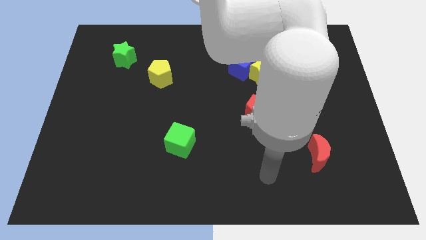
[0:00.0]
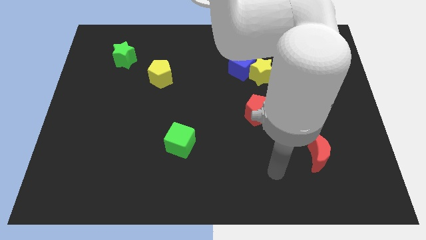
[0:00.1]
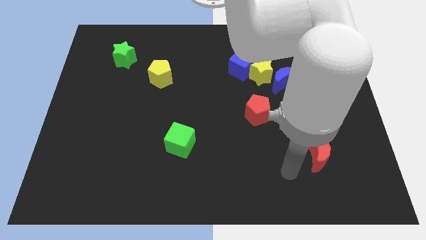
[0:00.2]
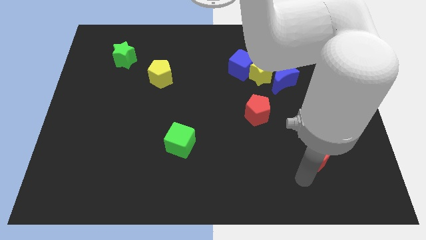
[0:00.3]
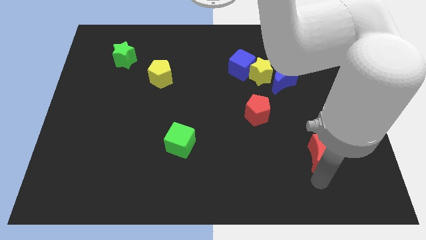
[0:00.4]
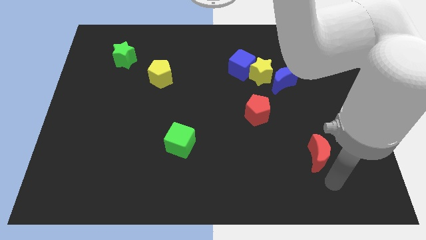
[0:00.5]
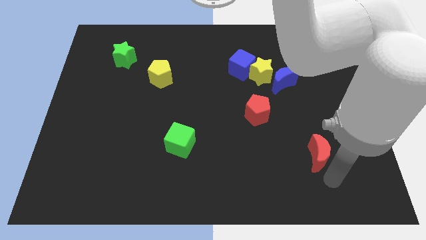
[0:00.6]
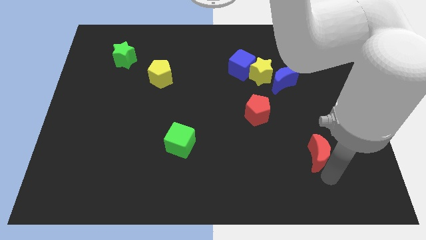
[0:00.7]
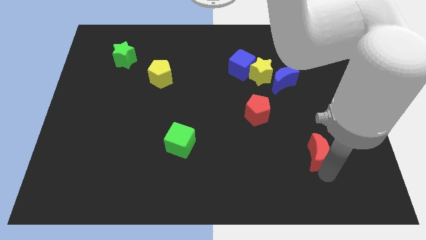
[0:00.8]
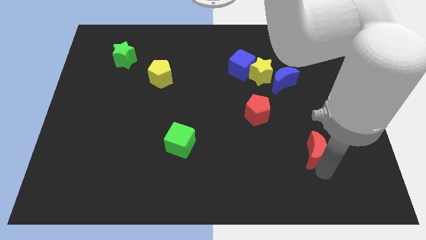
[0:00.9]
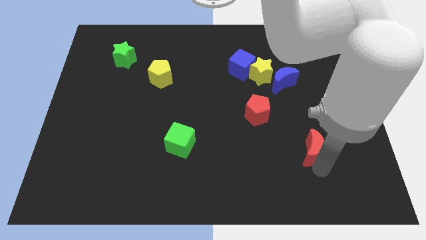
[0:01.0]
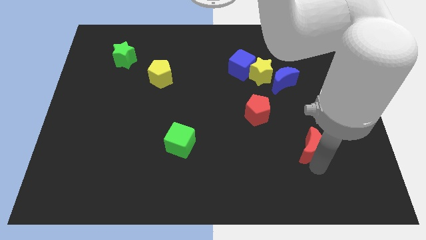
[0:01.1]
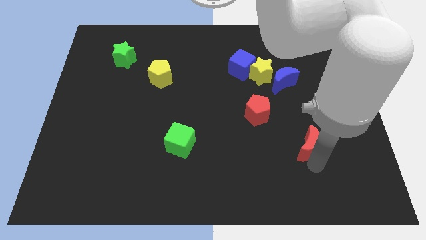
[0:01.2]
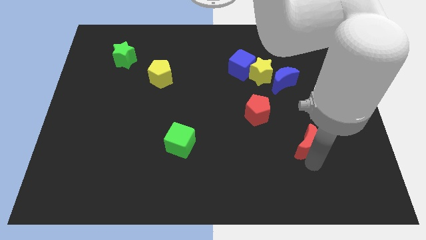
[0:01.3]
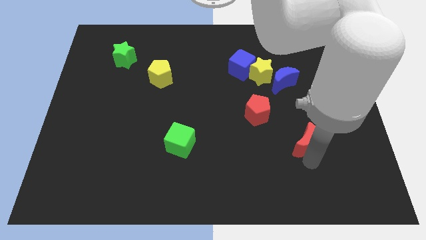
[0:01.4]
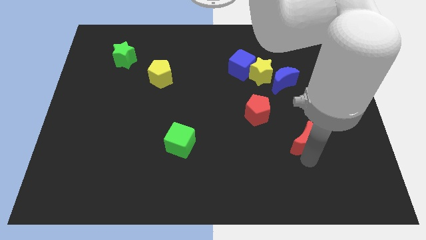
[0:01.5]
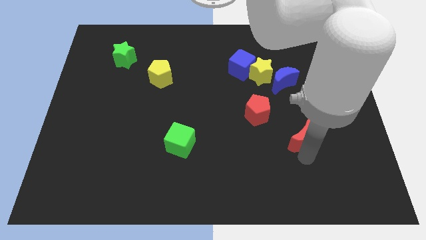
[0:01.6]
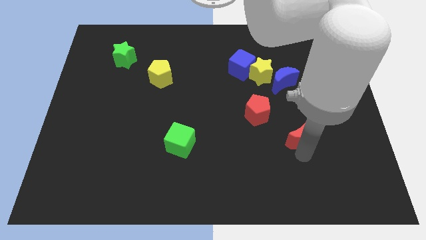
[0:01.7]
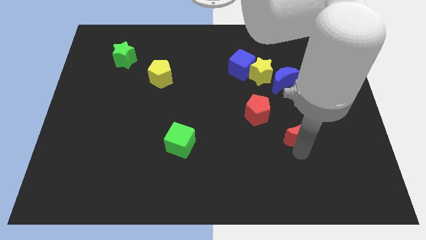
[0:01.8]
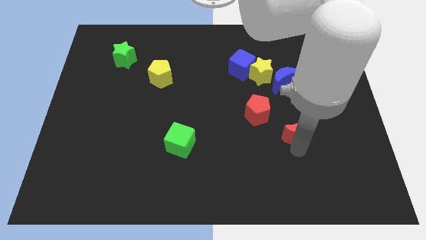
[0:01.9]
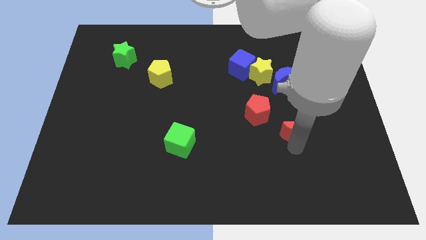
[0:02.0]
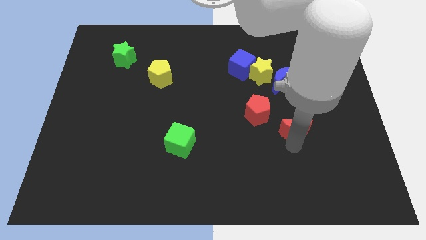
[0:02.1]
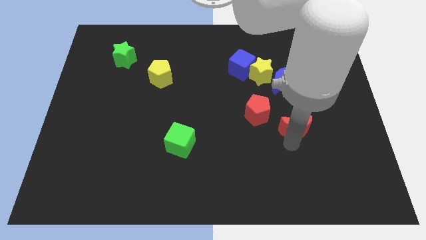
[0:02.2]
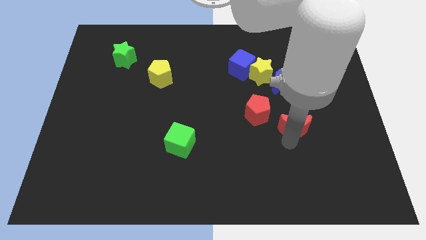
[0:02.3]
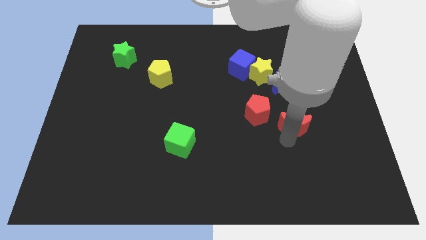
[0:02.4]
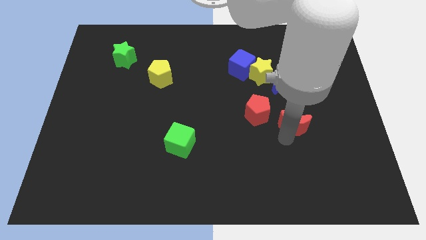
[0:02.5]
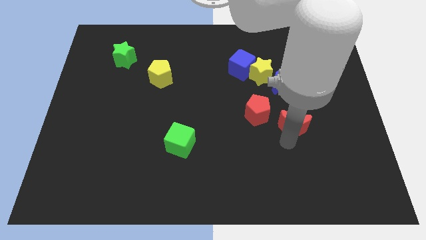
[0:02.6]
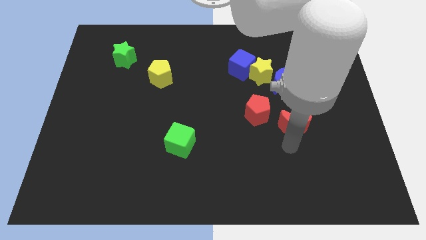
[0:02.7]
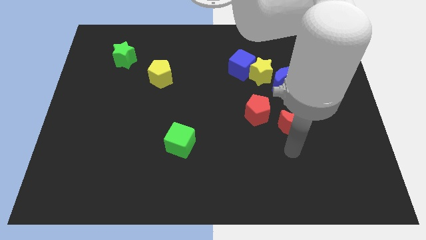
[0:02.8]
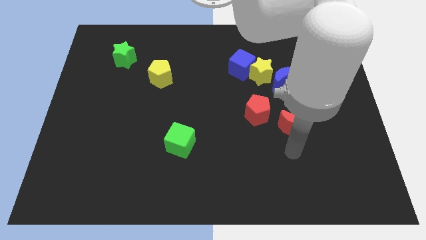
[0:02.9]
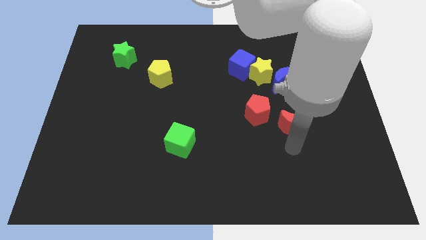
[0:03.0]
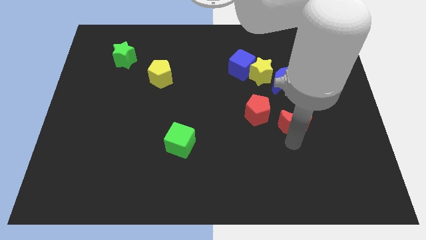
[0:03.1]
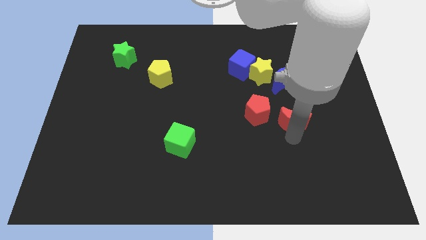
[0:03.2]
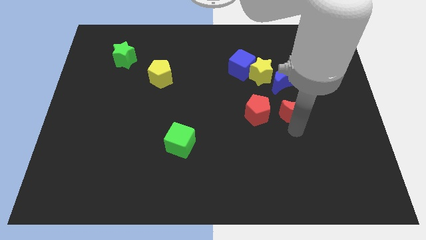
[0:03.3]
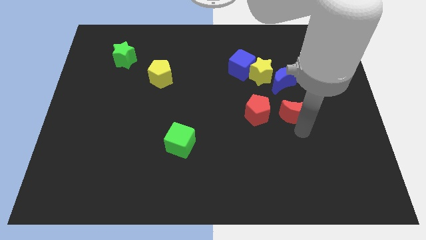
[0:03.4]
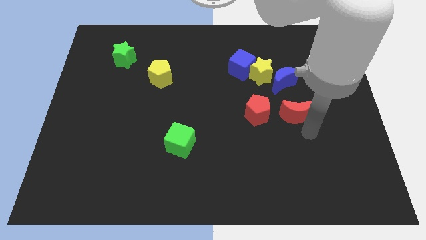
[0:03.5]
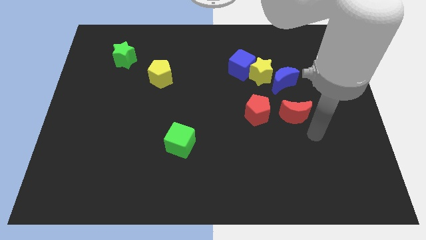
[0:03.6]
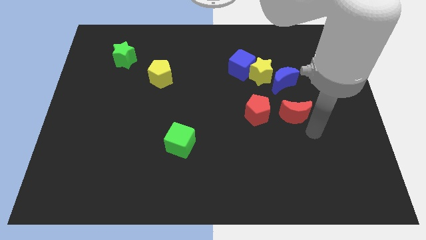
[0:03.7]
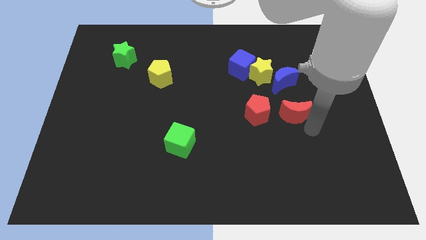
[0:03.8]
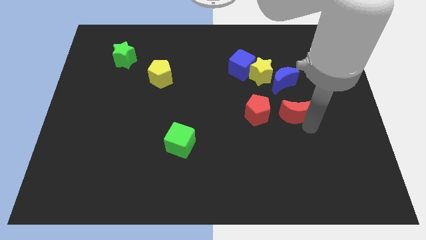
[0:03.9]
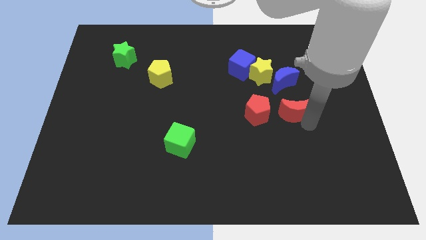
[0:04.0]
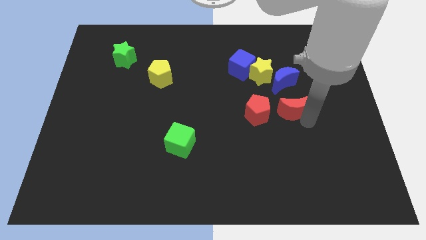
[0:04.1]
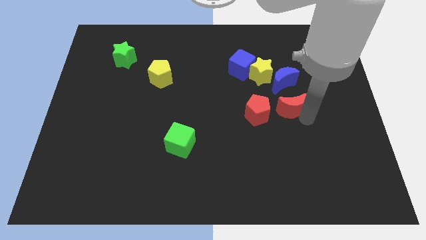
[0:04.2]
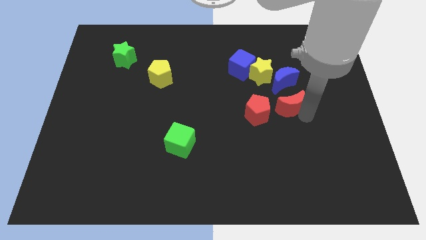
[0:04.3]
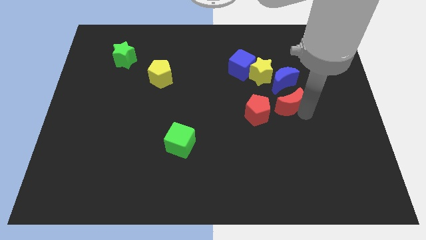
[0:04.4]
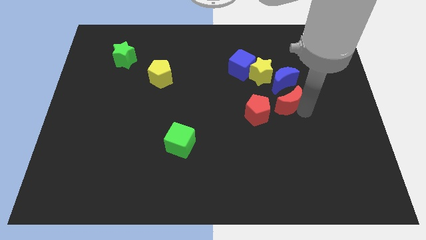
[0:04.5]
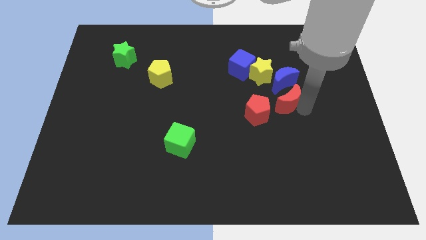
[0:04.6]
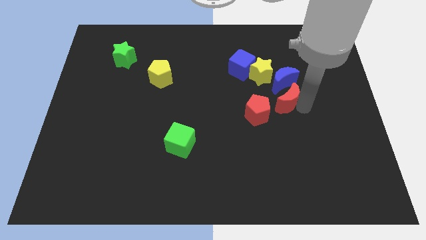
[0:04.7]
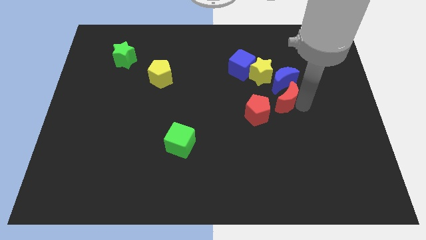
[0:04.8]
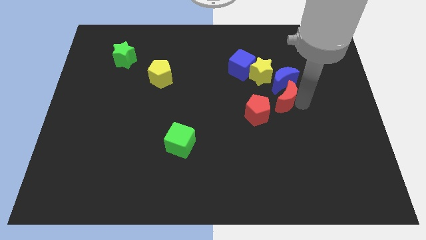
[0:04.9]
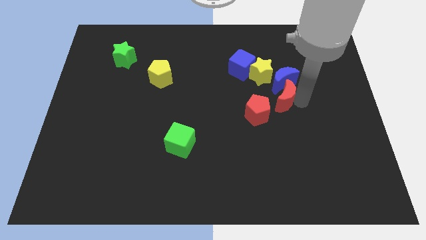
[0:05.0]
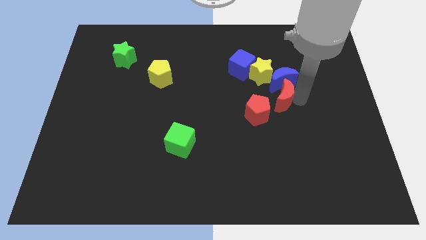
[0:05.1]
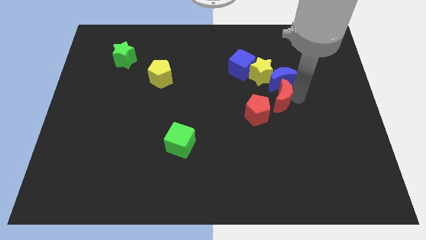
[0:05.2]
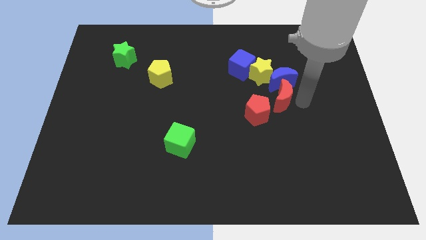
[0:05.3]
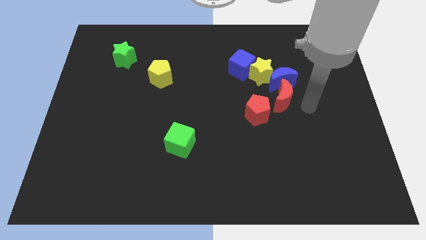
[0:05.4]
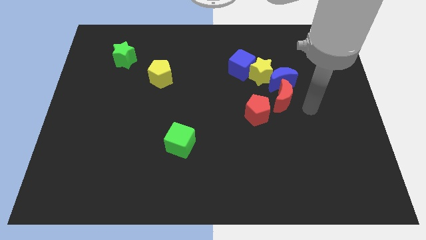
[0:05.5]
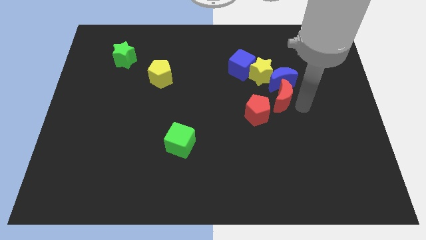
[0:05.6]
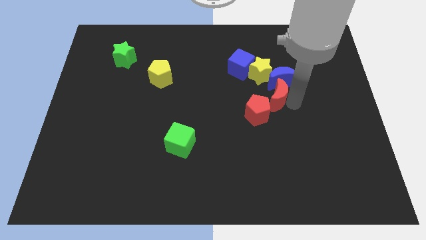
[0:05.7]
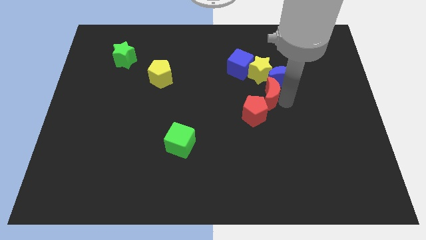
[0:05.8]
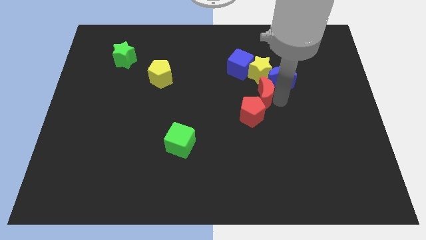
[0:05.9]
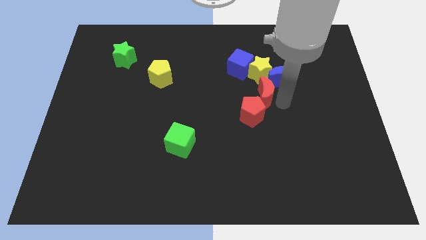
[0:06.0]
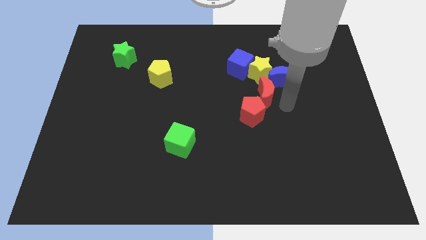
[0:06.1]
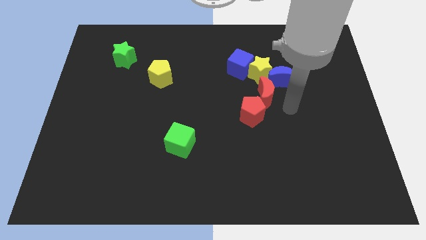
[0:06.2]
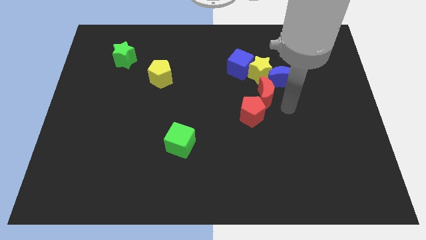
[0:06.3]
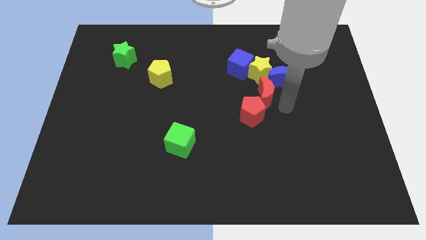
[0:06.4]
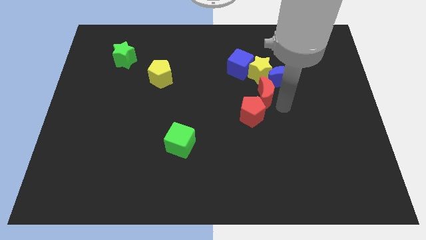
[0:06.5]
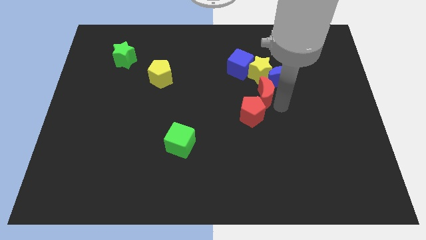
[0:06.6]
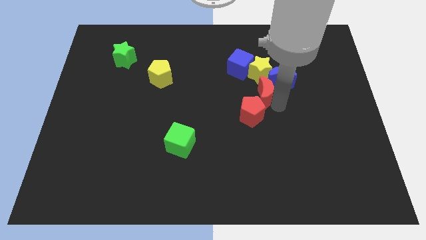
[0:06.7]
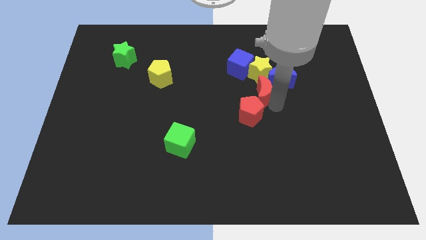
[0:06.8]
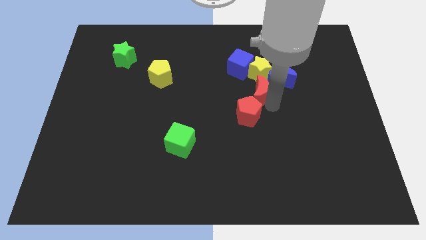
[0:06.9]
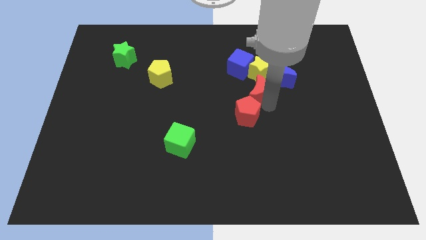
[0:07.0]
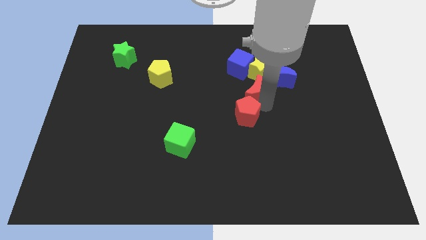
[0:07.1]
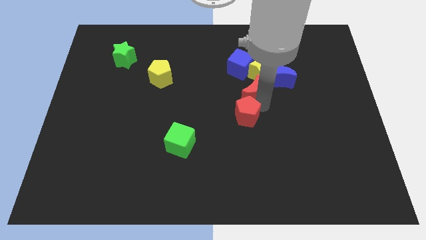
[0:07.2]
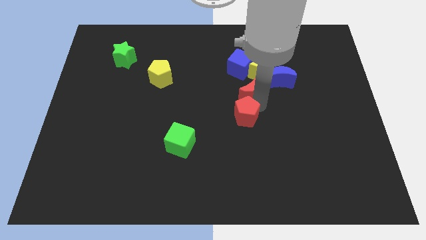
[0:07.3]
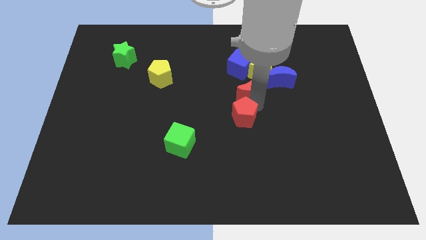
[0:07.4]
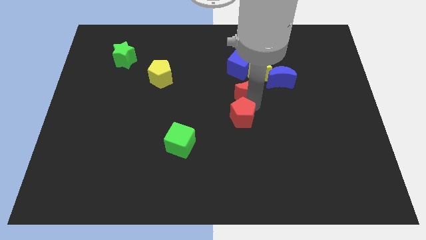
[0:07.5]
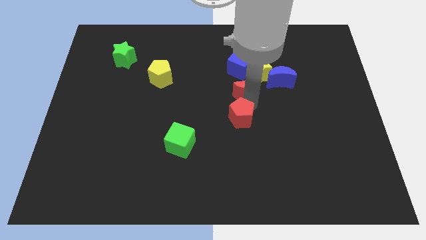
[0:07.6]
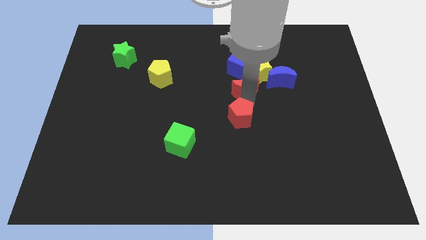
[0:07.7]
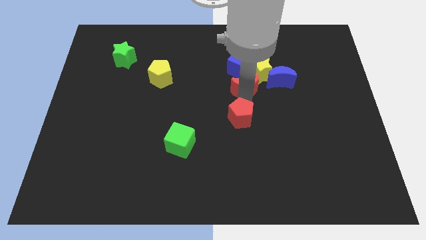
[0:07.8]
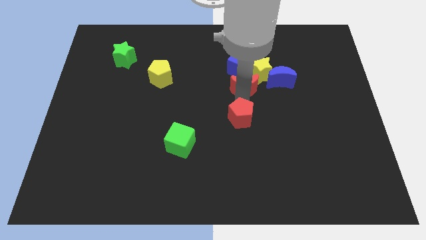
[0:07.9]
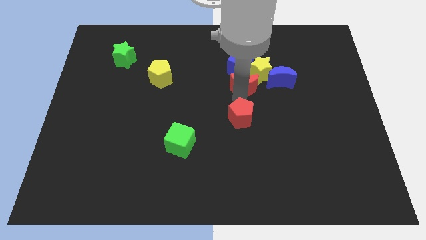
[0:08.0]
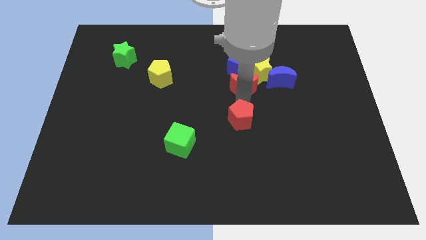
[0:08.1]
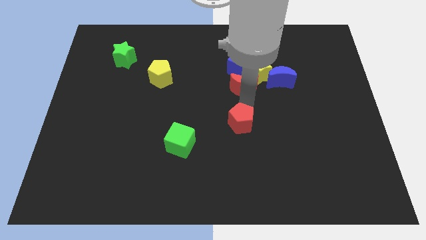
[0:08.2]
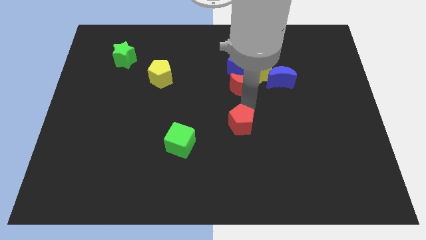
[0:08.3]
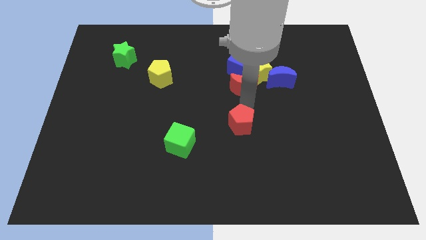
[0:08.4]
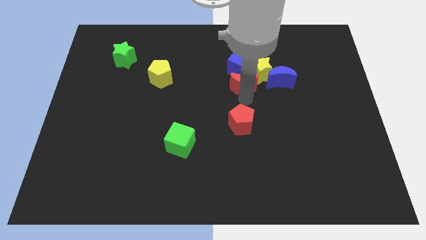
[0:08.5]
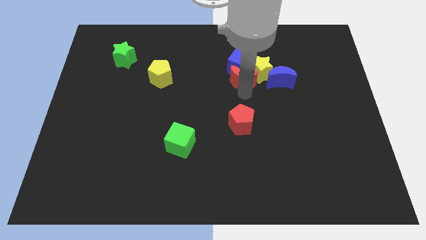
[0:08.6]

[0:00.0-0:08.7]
put the red moon next to the blue cube
